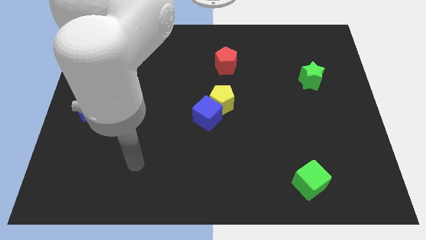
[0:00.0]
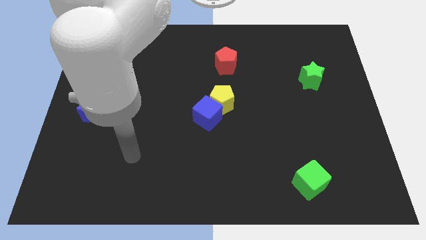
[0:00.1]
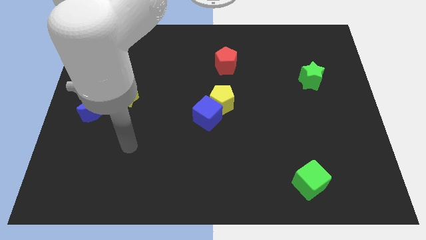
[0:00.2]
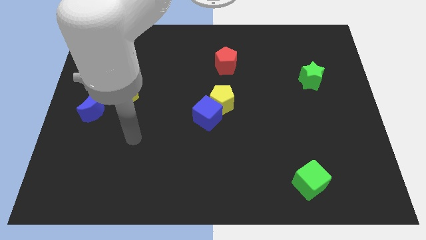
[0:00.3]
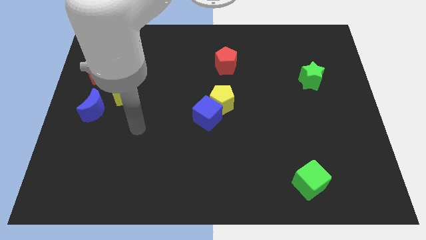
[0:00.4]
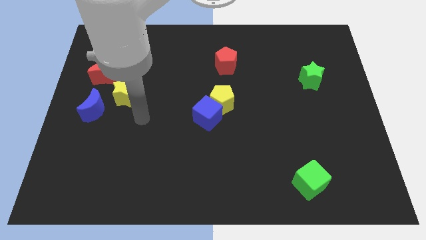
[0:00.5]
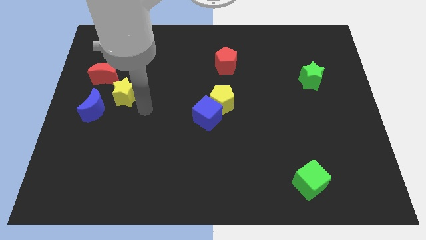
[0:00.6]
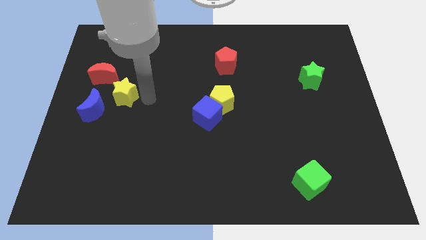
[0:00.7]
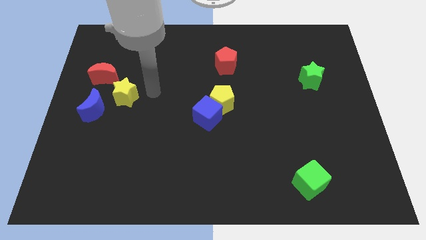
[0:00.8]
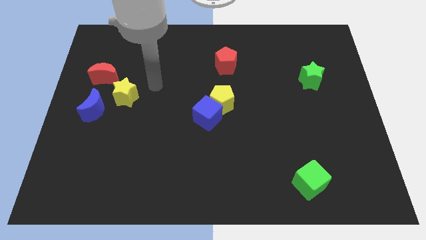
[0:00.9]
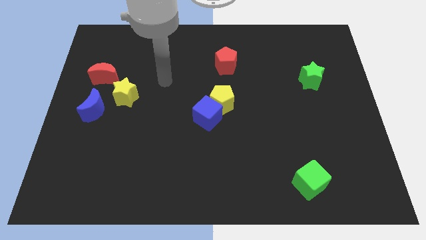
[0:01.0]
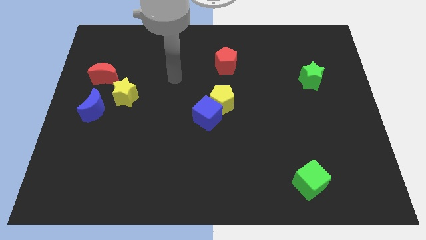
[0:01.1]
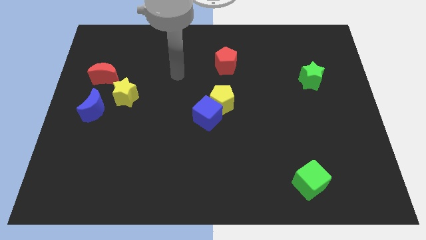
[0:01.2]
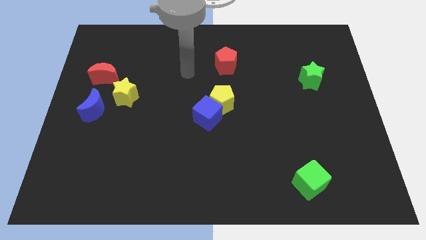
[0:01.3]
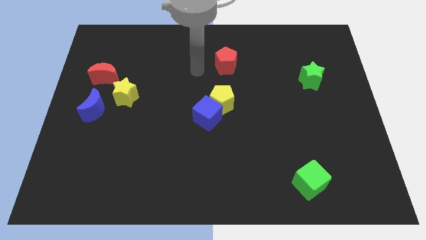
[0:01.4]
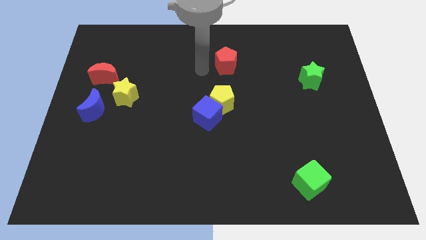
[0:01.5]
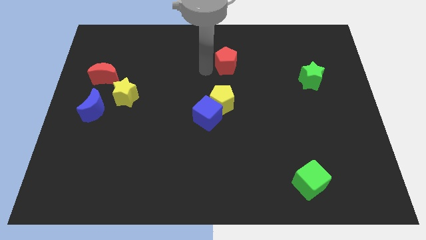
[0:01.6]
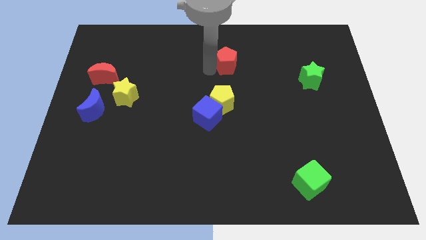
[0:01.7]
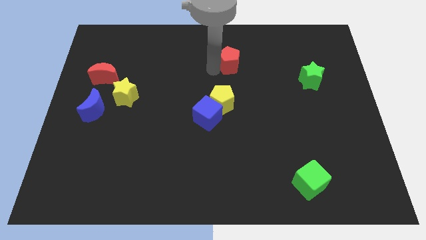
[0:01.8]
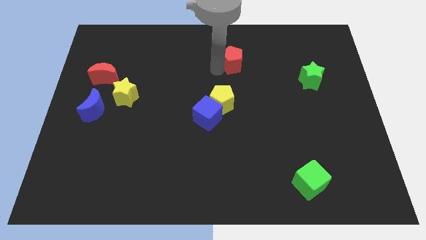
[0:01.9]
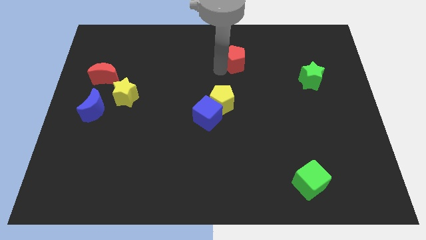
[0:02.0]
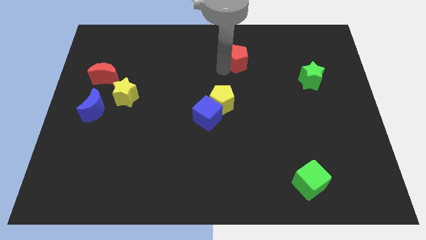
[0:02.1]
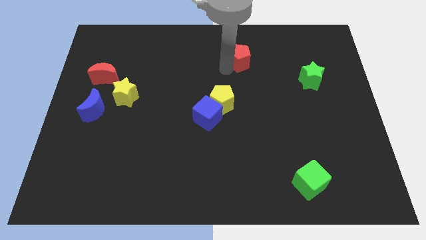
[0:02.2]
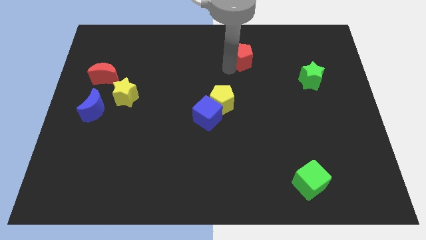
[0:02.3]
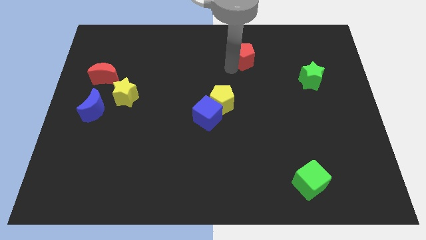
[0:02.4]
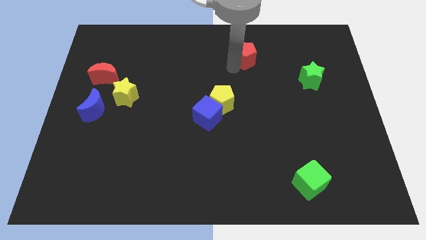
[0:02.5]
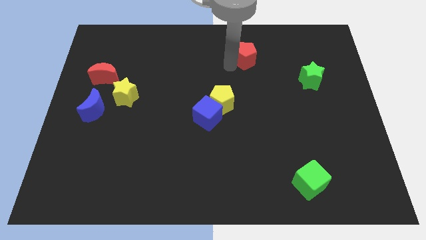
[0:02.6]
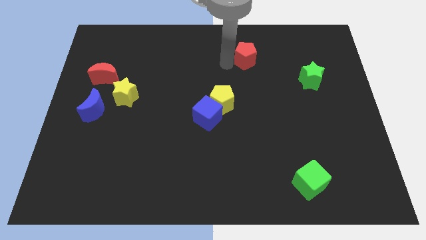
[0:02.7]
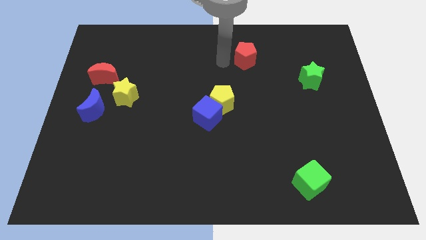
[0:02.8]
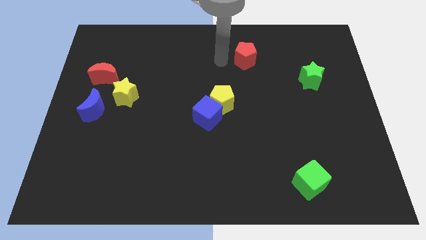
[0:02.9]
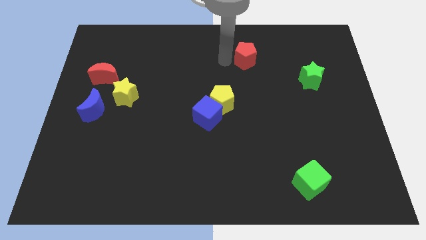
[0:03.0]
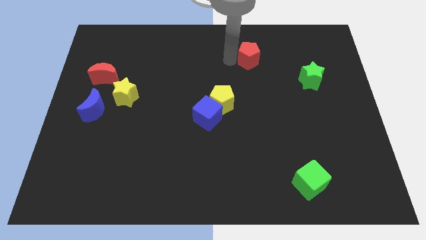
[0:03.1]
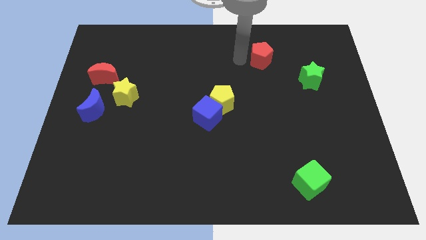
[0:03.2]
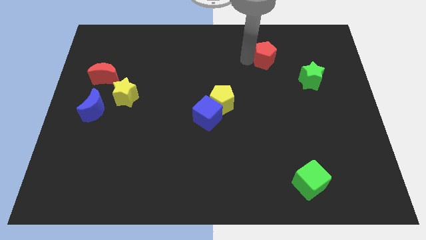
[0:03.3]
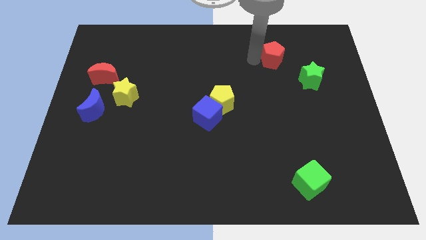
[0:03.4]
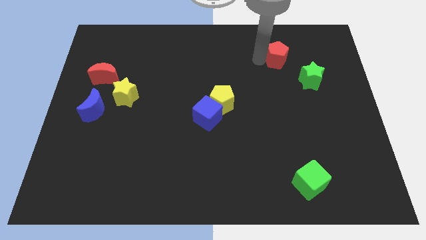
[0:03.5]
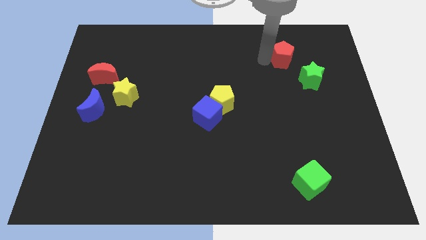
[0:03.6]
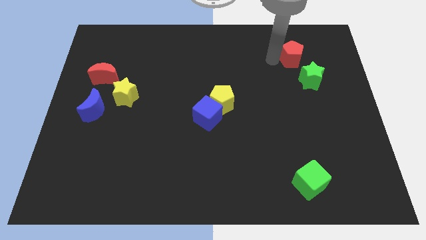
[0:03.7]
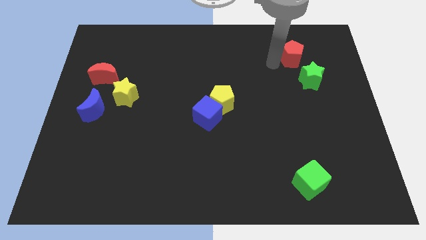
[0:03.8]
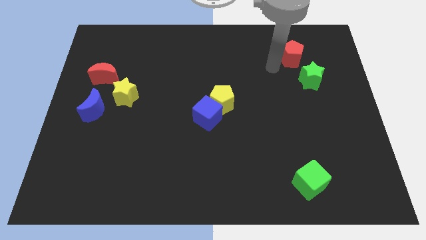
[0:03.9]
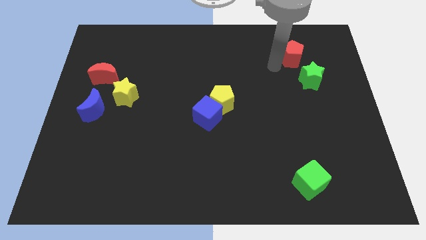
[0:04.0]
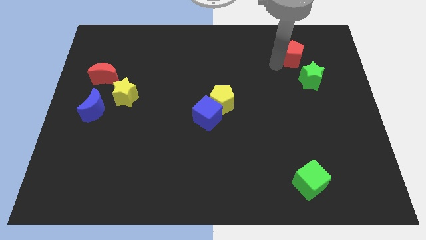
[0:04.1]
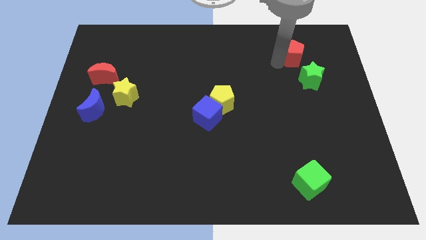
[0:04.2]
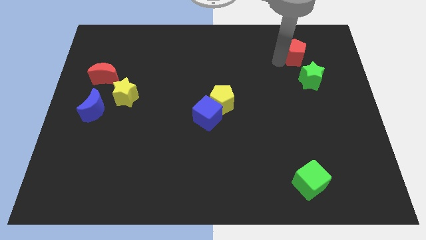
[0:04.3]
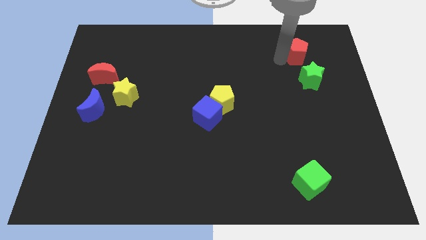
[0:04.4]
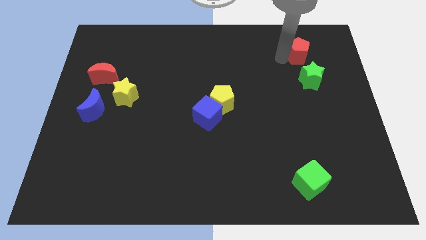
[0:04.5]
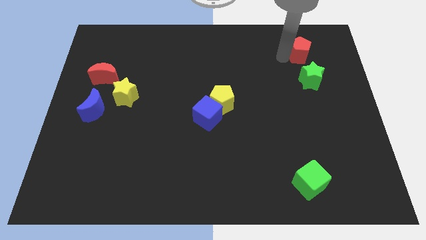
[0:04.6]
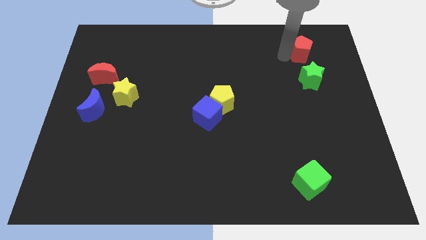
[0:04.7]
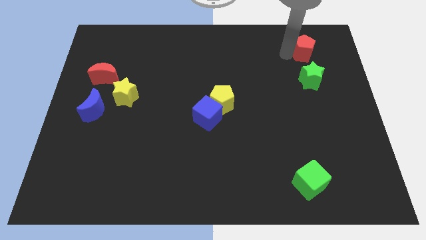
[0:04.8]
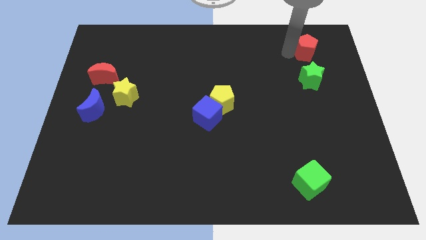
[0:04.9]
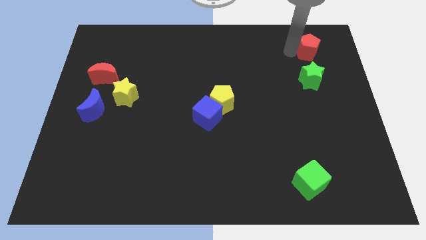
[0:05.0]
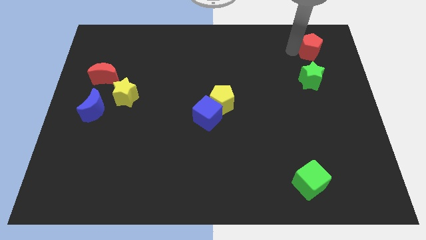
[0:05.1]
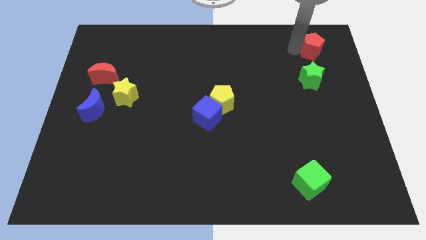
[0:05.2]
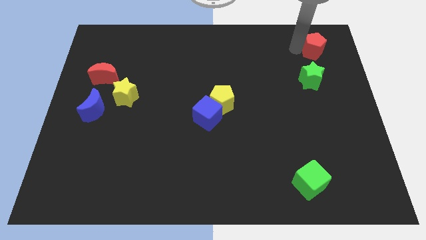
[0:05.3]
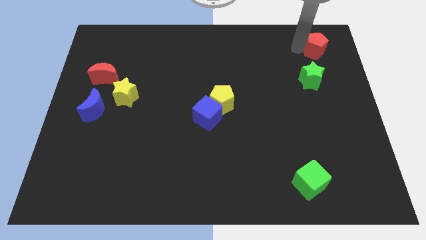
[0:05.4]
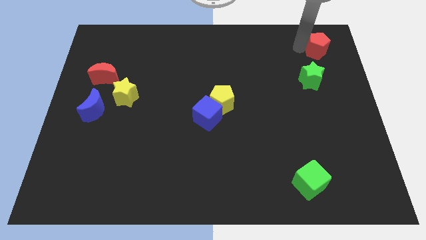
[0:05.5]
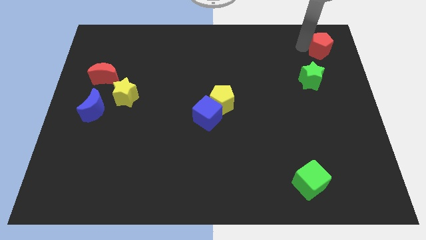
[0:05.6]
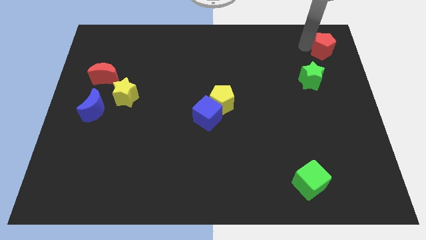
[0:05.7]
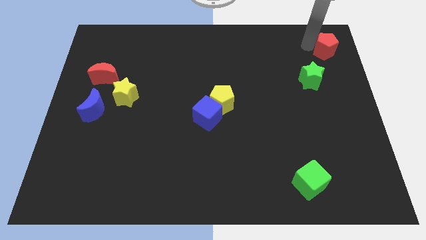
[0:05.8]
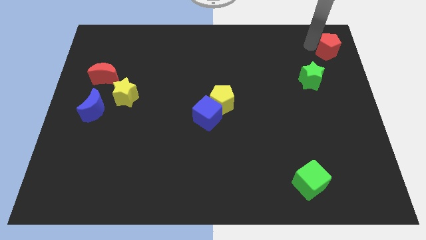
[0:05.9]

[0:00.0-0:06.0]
move the red pentagon to the top right corner

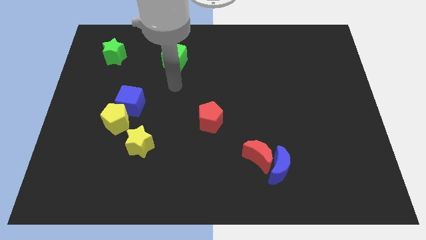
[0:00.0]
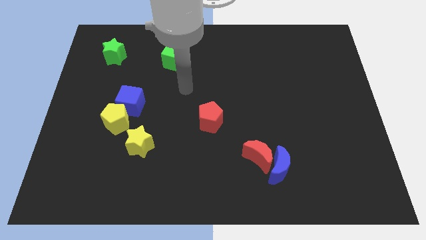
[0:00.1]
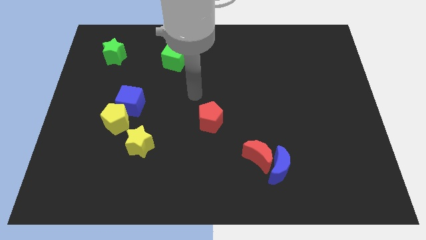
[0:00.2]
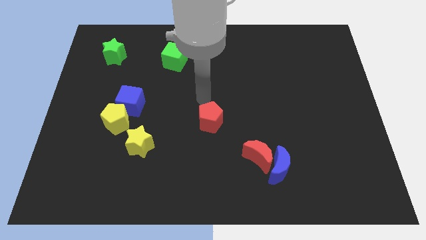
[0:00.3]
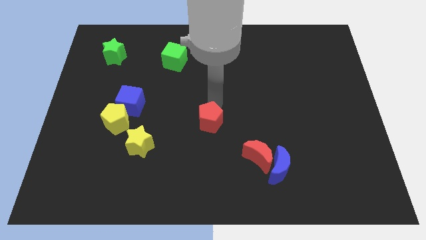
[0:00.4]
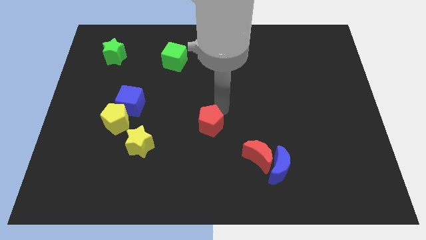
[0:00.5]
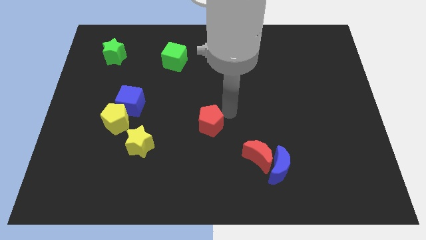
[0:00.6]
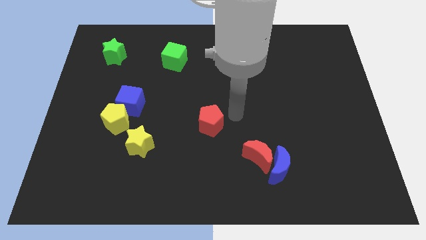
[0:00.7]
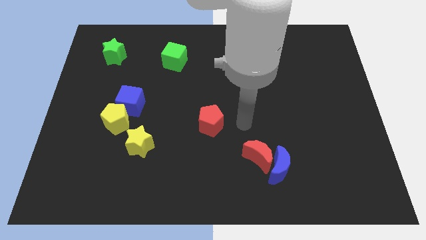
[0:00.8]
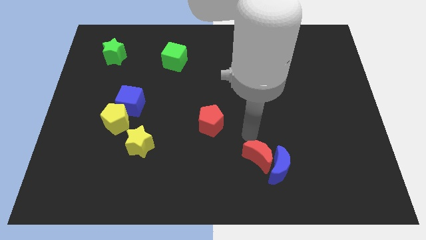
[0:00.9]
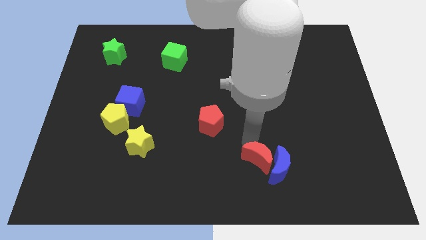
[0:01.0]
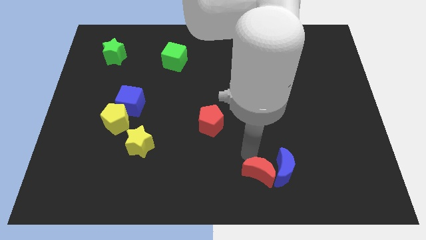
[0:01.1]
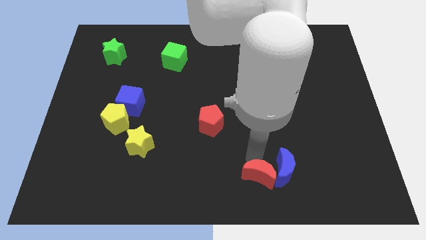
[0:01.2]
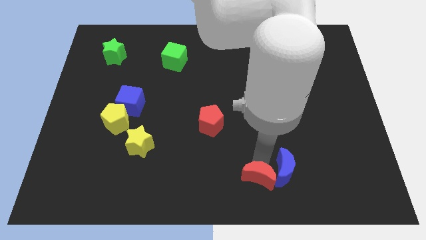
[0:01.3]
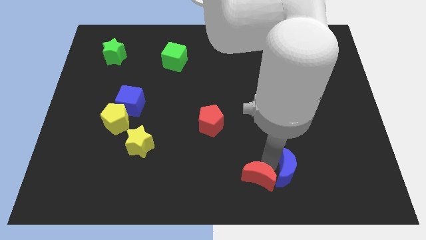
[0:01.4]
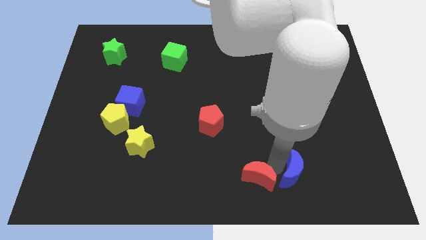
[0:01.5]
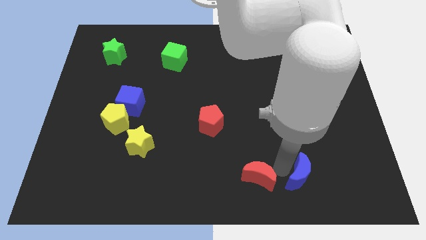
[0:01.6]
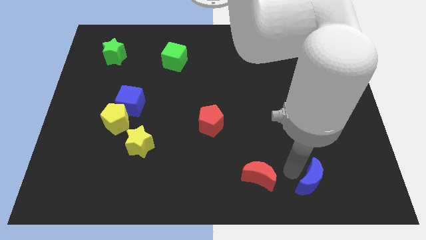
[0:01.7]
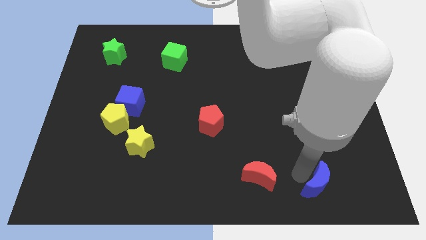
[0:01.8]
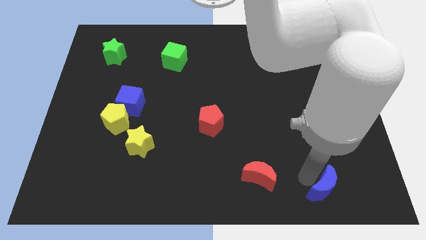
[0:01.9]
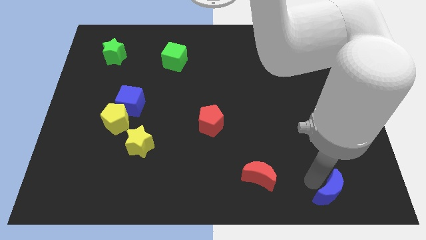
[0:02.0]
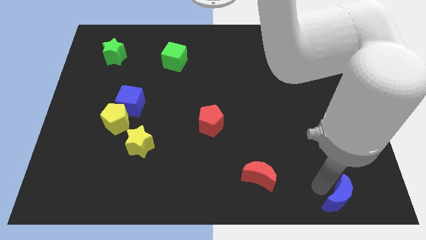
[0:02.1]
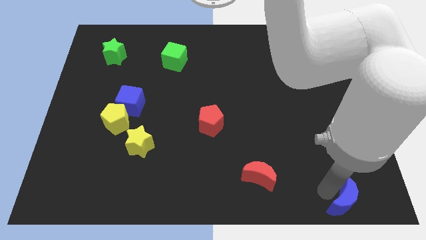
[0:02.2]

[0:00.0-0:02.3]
move the blue moon to the bottom right corner
